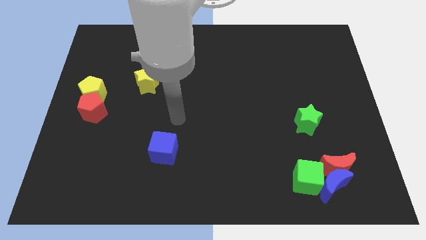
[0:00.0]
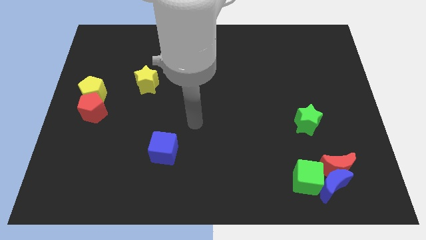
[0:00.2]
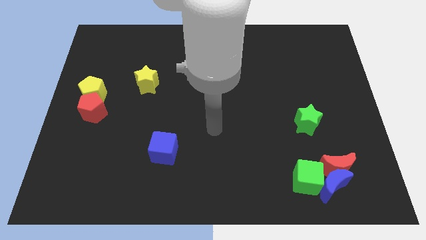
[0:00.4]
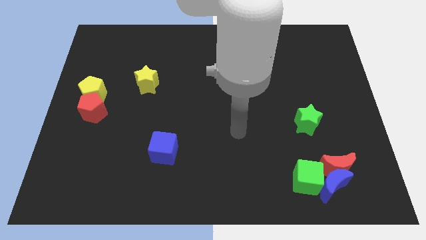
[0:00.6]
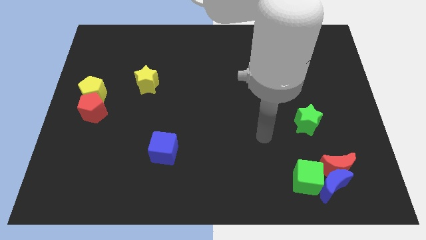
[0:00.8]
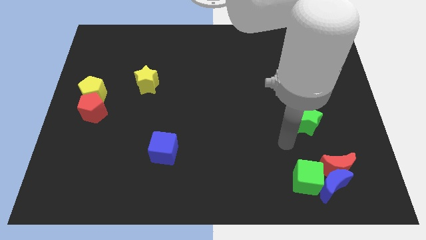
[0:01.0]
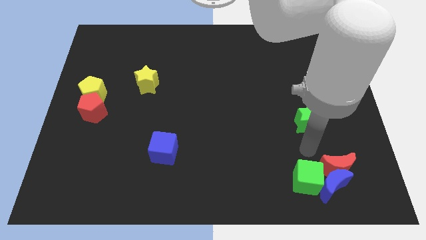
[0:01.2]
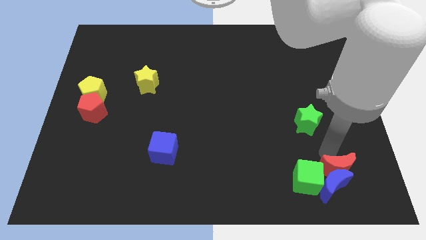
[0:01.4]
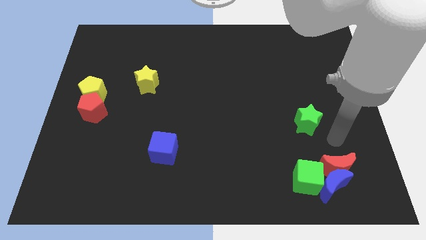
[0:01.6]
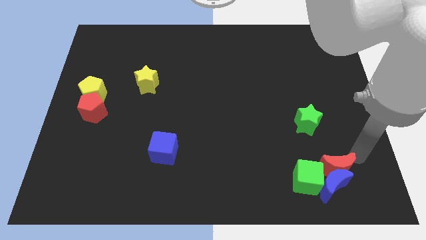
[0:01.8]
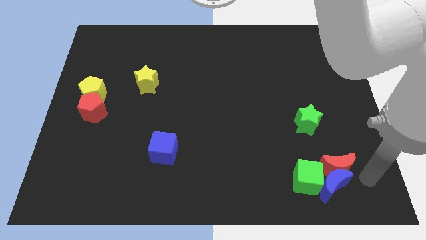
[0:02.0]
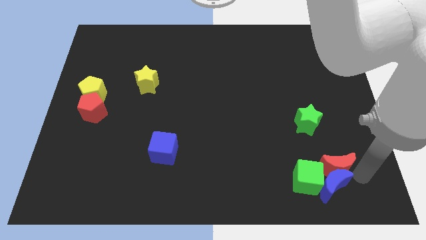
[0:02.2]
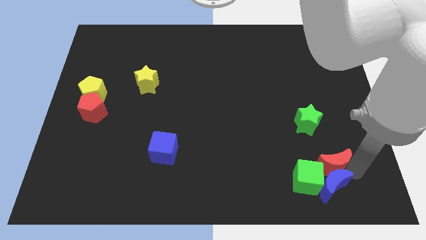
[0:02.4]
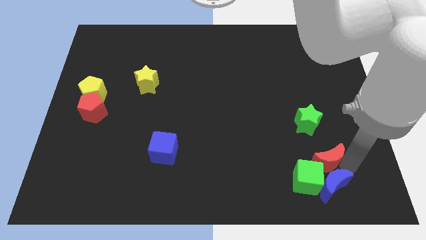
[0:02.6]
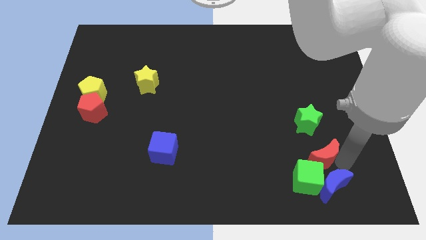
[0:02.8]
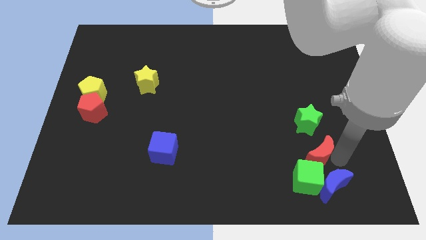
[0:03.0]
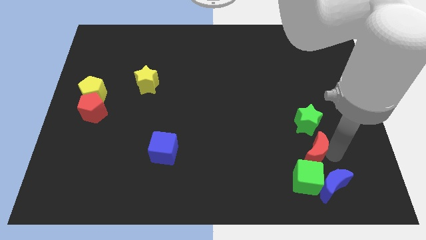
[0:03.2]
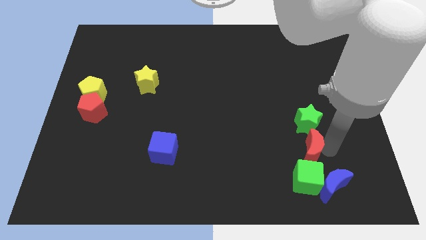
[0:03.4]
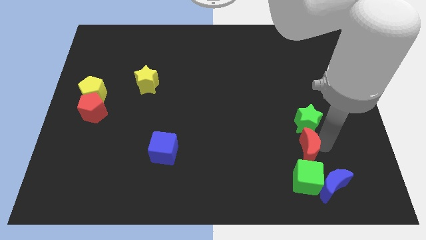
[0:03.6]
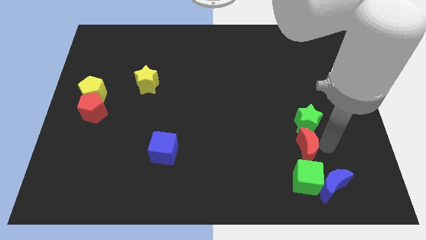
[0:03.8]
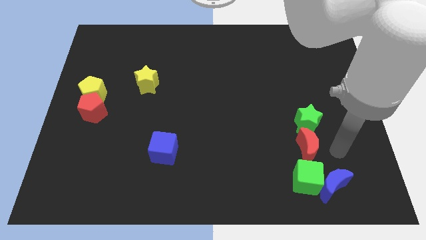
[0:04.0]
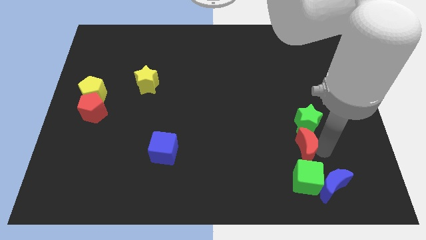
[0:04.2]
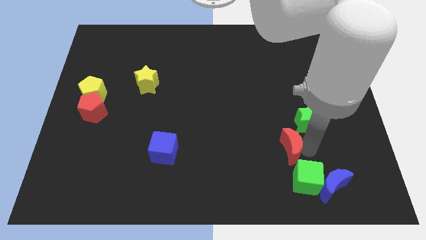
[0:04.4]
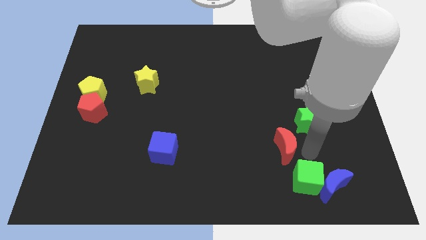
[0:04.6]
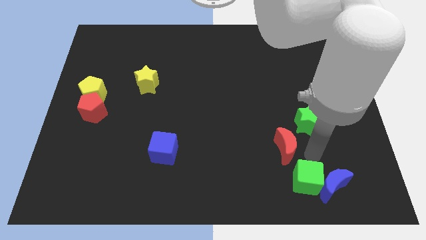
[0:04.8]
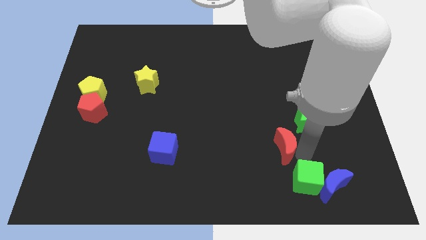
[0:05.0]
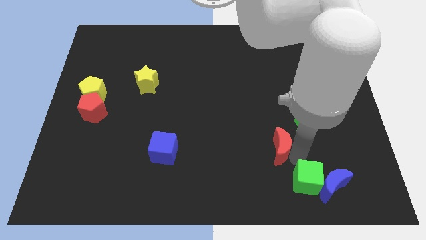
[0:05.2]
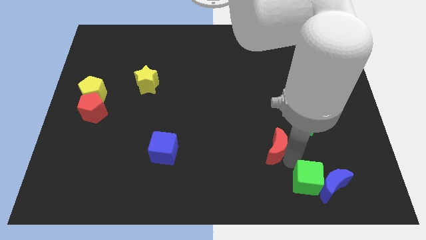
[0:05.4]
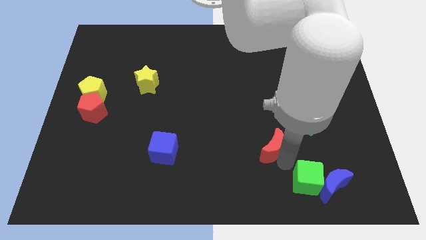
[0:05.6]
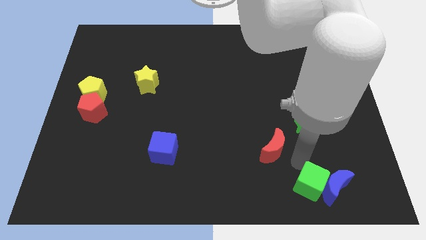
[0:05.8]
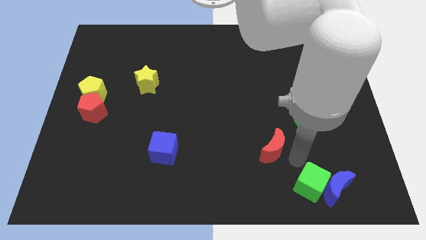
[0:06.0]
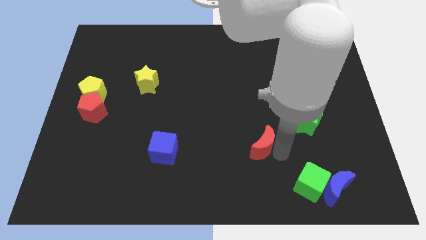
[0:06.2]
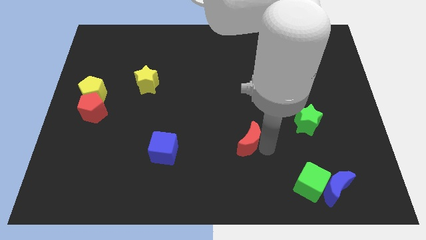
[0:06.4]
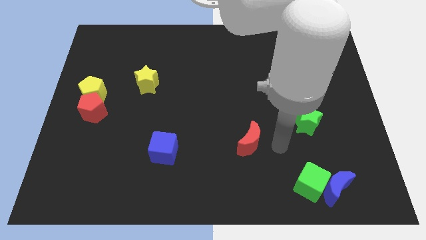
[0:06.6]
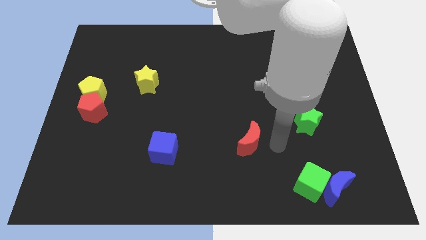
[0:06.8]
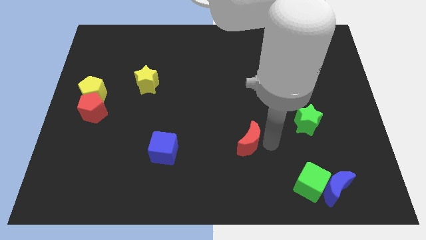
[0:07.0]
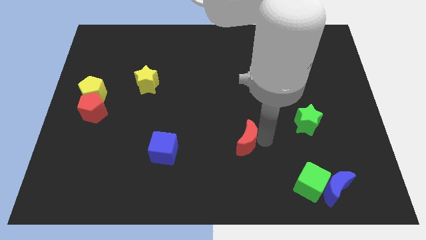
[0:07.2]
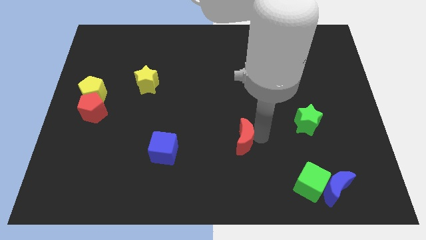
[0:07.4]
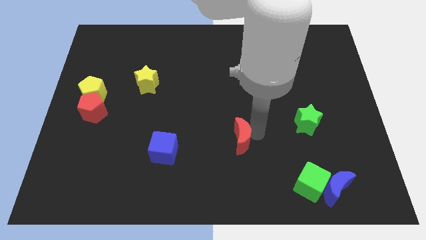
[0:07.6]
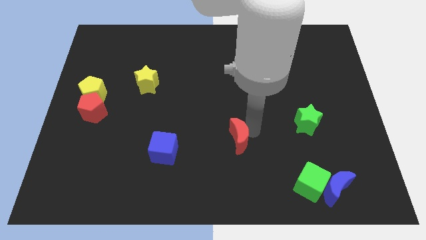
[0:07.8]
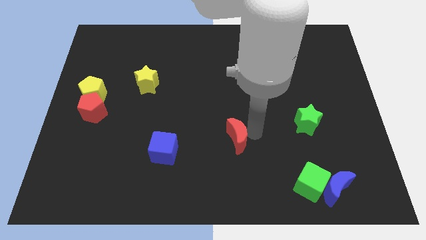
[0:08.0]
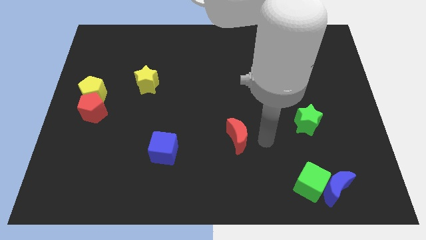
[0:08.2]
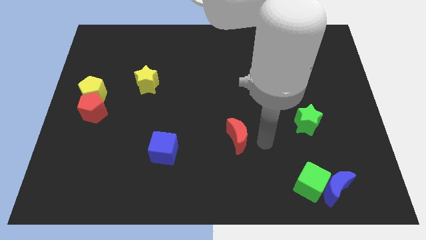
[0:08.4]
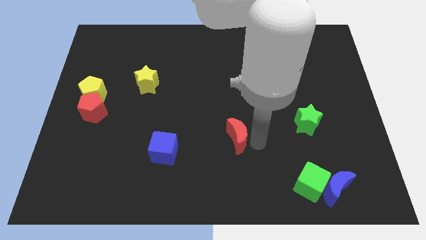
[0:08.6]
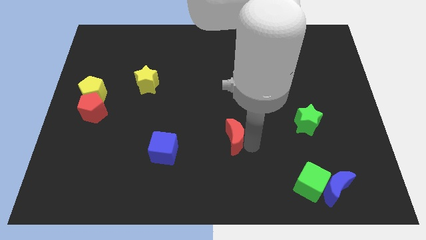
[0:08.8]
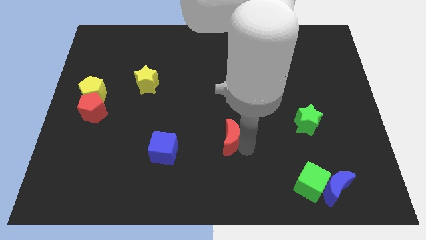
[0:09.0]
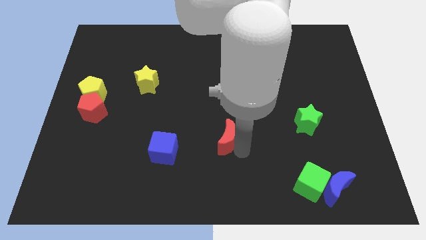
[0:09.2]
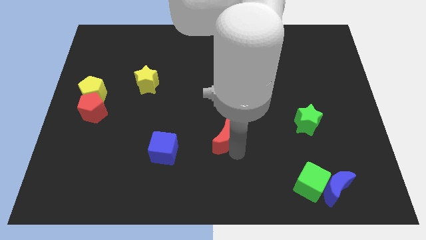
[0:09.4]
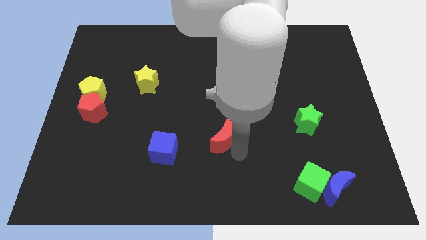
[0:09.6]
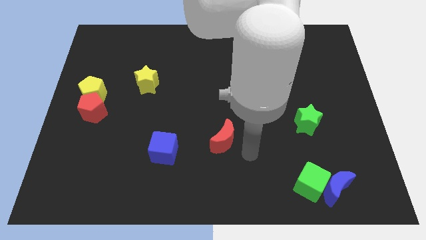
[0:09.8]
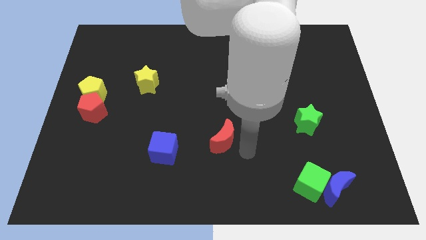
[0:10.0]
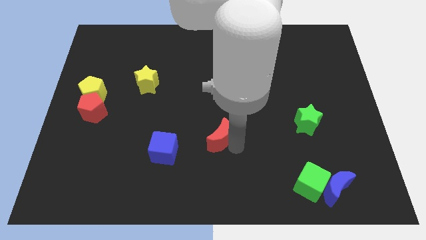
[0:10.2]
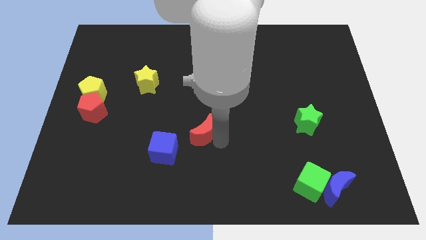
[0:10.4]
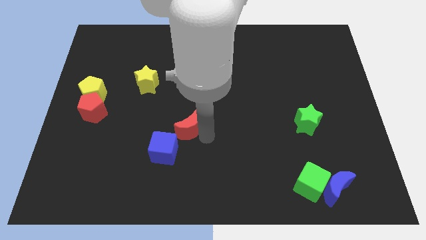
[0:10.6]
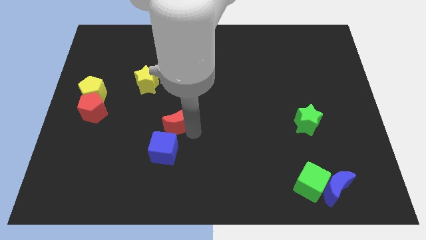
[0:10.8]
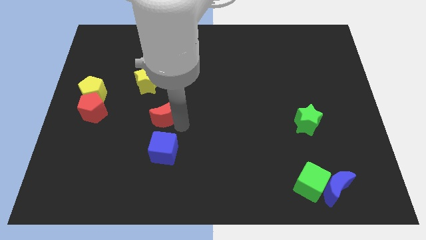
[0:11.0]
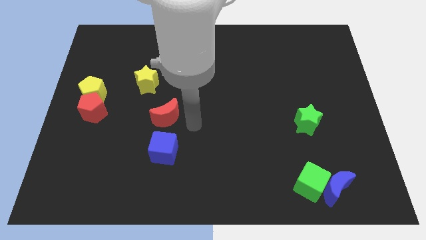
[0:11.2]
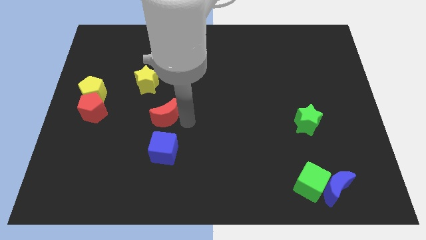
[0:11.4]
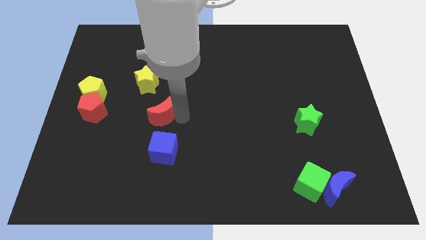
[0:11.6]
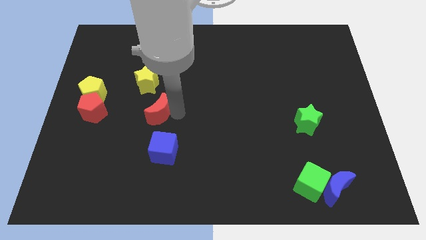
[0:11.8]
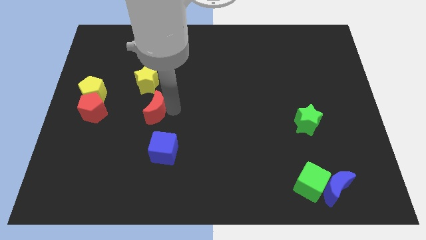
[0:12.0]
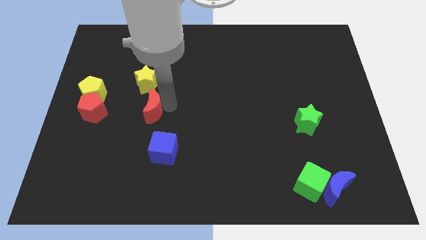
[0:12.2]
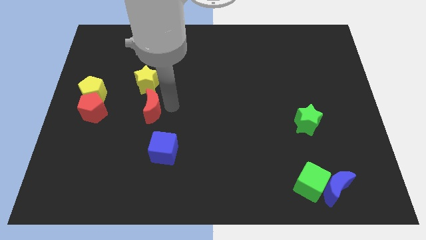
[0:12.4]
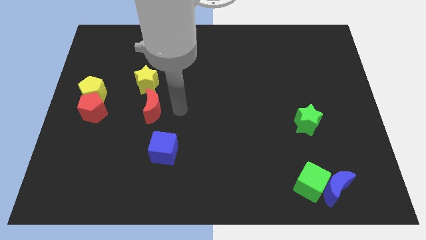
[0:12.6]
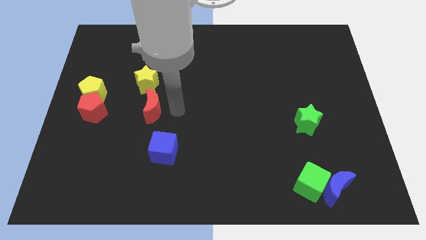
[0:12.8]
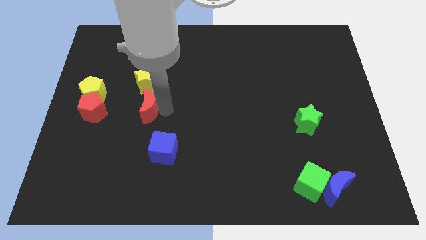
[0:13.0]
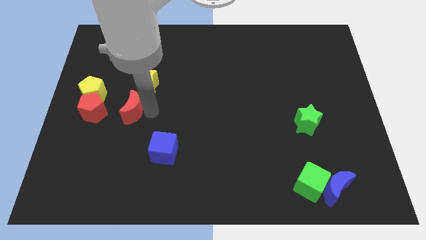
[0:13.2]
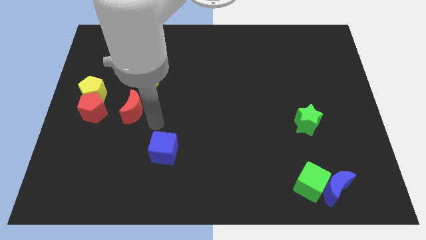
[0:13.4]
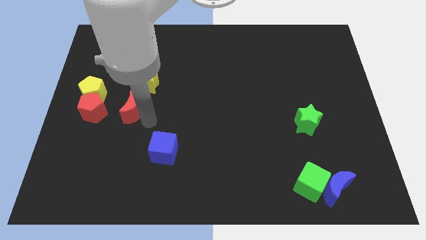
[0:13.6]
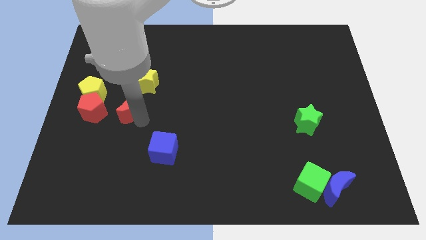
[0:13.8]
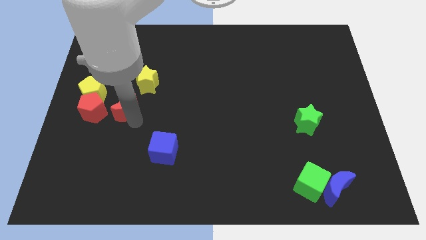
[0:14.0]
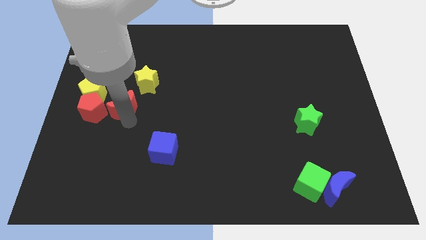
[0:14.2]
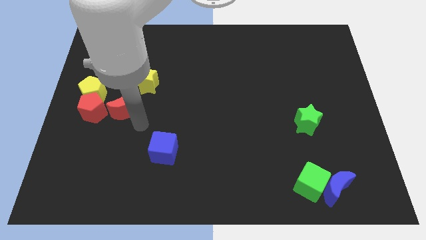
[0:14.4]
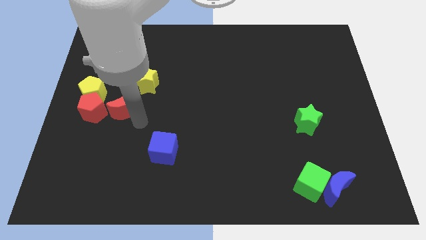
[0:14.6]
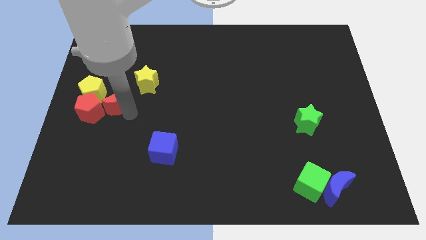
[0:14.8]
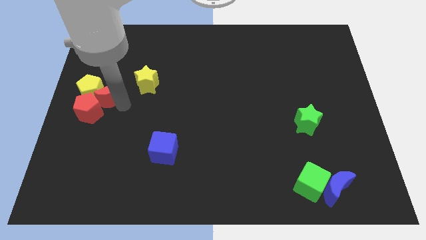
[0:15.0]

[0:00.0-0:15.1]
push the red moon next to the yellow pentagon
